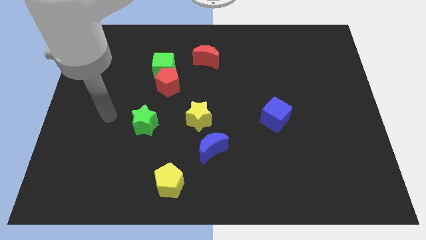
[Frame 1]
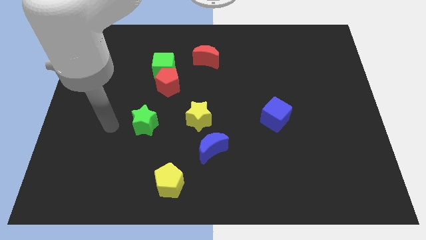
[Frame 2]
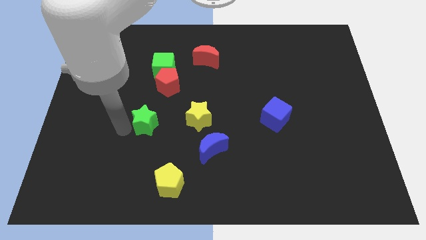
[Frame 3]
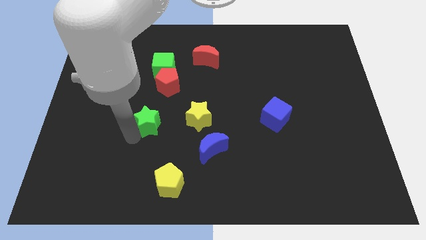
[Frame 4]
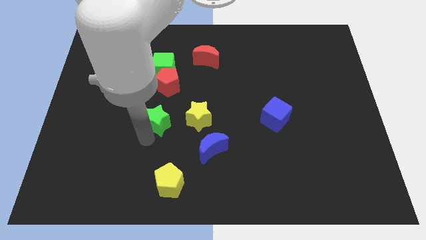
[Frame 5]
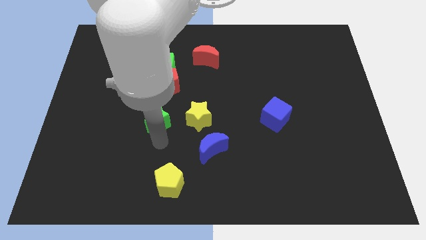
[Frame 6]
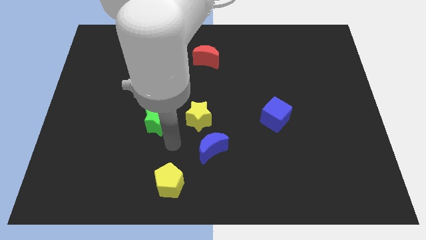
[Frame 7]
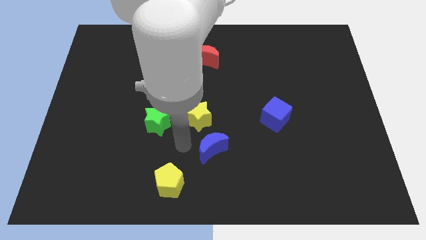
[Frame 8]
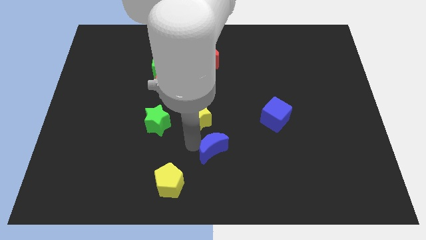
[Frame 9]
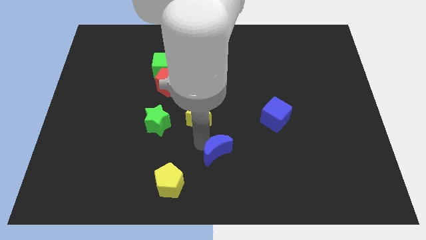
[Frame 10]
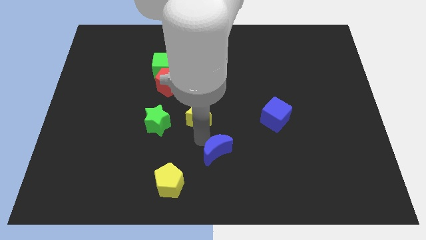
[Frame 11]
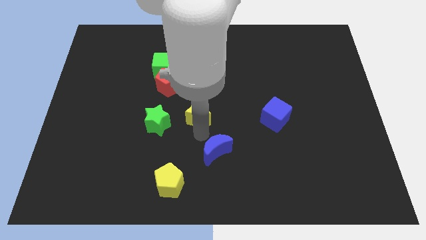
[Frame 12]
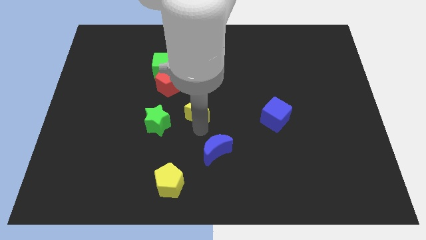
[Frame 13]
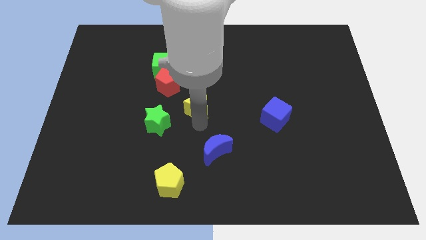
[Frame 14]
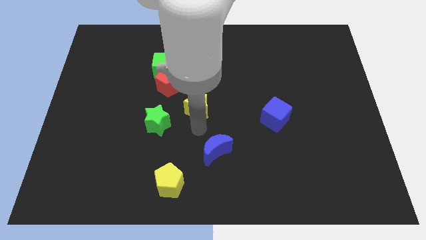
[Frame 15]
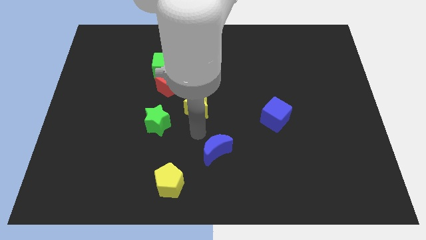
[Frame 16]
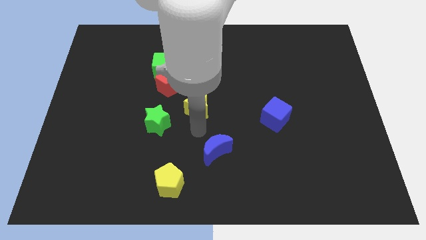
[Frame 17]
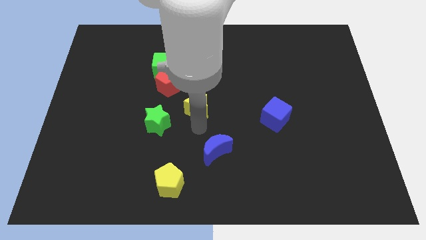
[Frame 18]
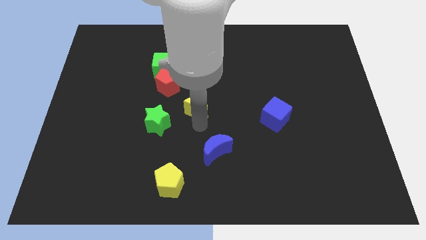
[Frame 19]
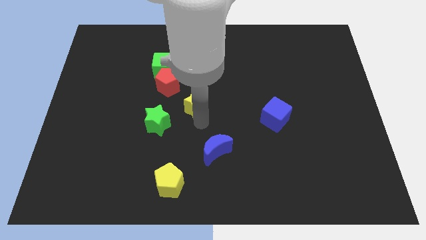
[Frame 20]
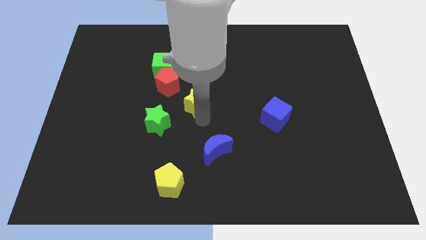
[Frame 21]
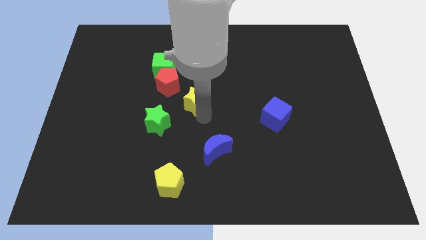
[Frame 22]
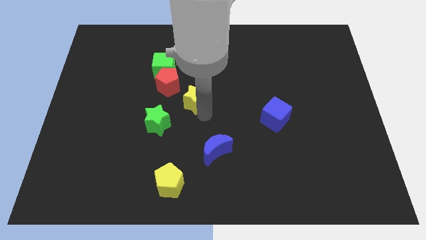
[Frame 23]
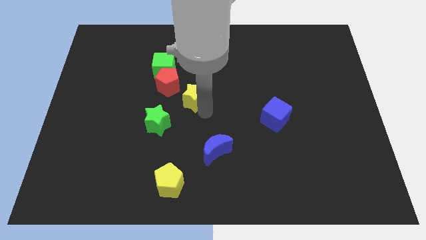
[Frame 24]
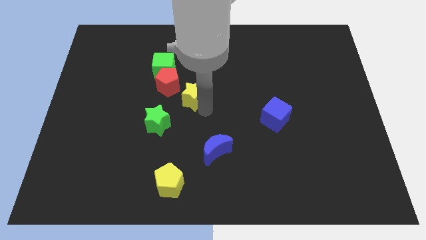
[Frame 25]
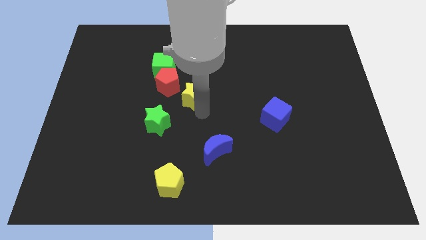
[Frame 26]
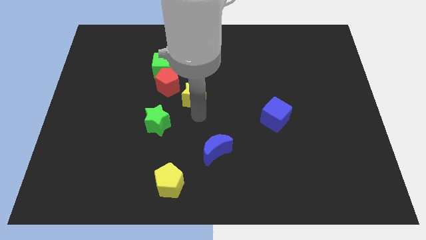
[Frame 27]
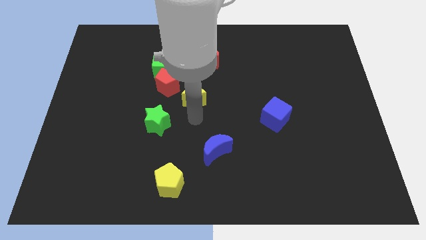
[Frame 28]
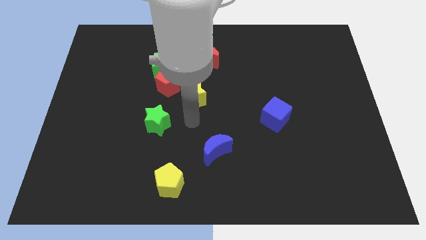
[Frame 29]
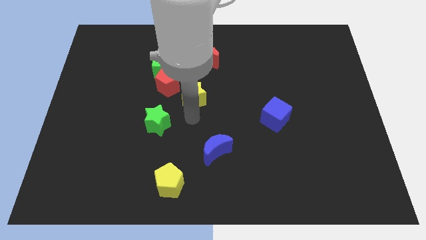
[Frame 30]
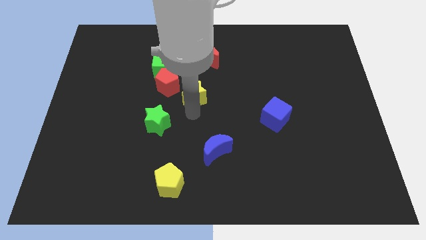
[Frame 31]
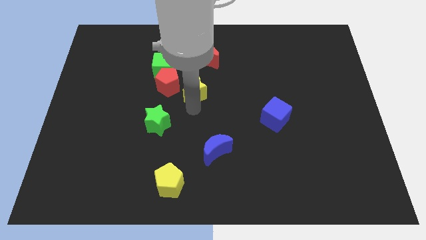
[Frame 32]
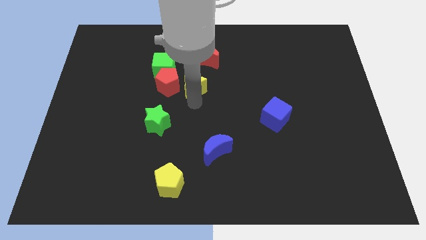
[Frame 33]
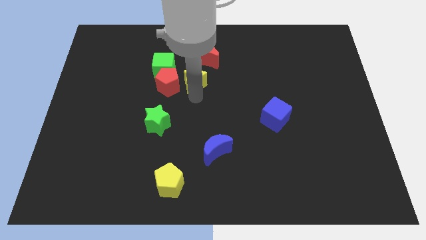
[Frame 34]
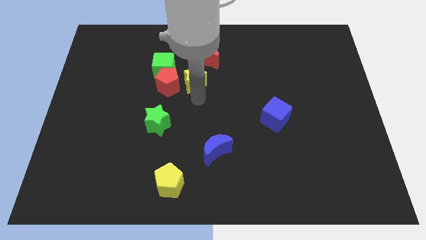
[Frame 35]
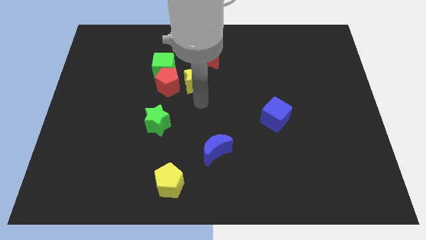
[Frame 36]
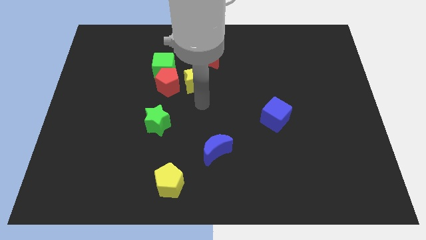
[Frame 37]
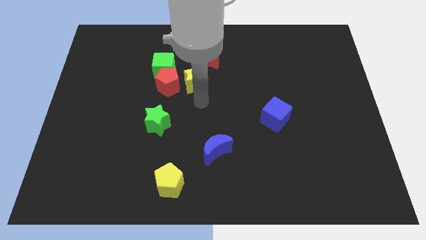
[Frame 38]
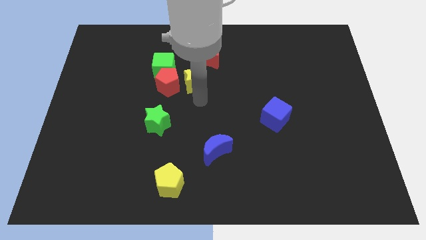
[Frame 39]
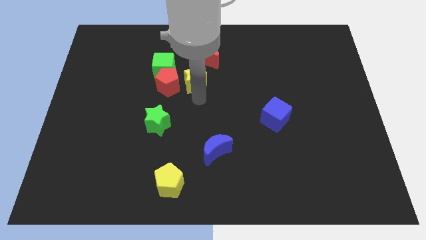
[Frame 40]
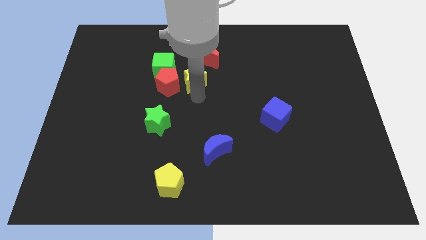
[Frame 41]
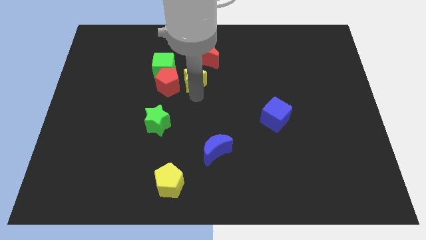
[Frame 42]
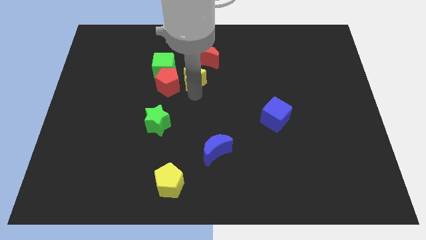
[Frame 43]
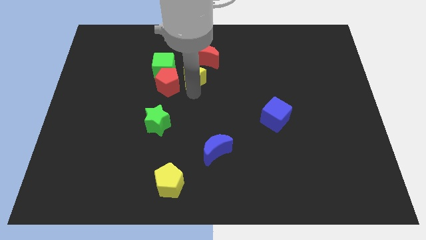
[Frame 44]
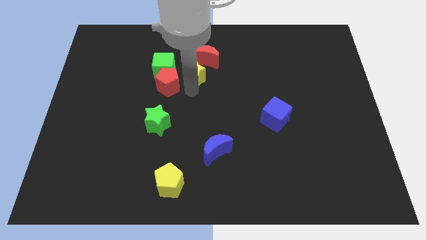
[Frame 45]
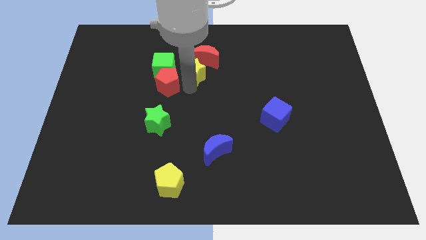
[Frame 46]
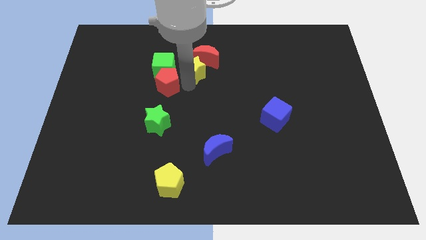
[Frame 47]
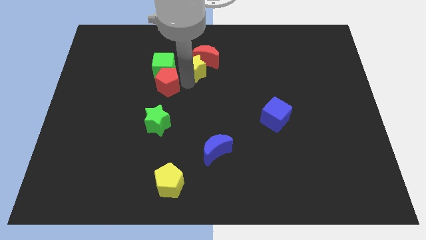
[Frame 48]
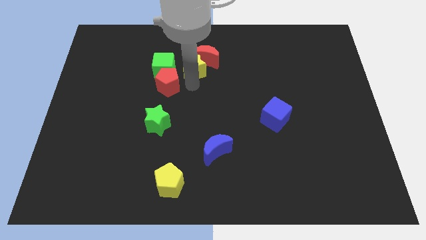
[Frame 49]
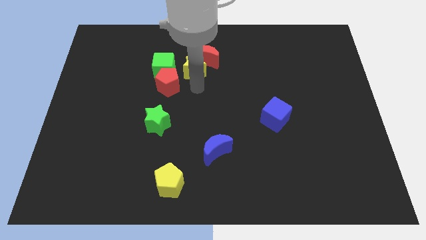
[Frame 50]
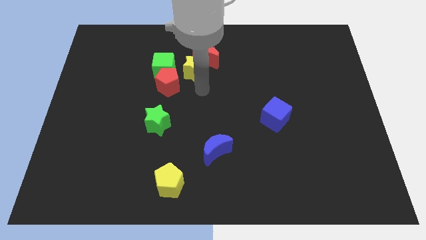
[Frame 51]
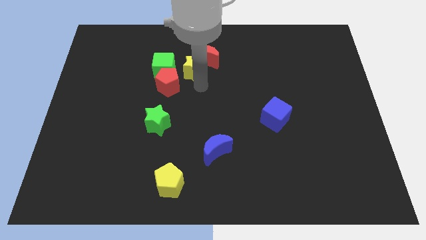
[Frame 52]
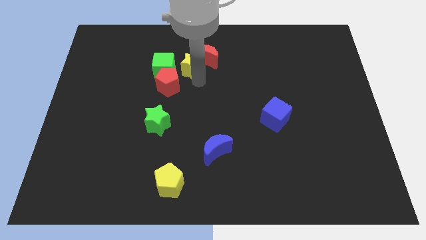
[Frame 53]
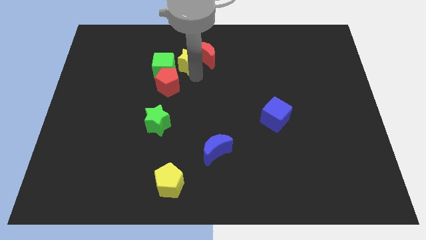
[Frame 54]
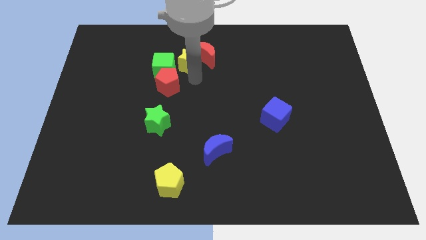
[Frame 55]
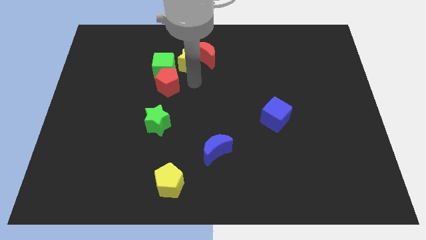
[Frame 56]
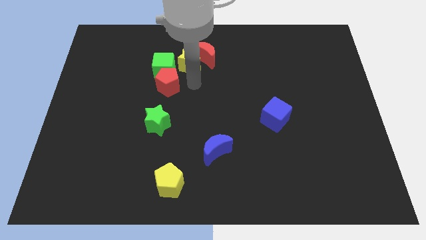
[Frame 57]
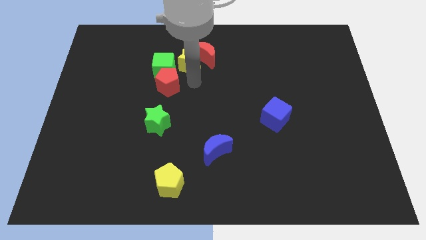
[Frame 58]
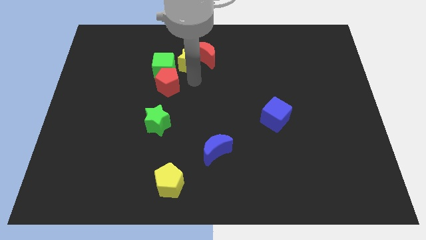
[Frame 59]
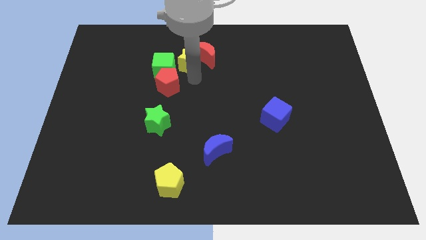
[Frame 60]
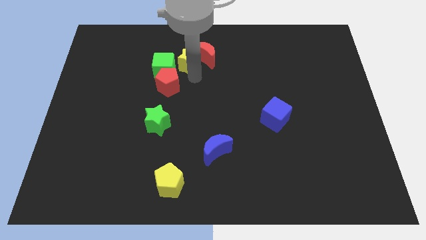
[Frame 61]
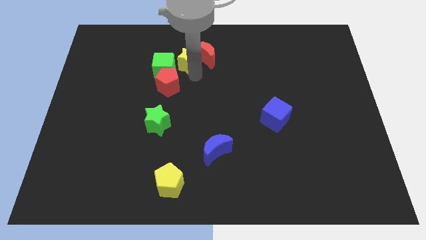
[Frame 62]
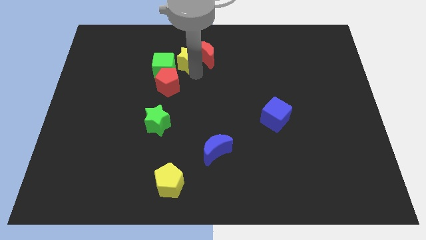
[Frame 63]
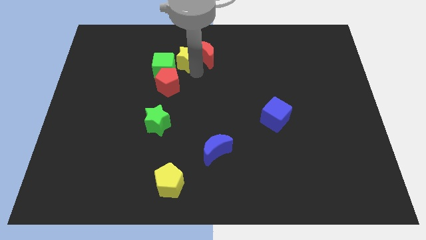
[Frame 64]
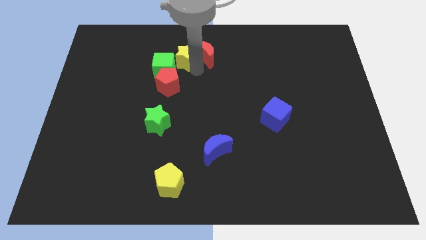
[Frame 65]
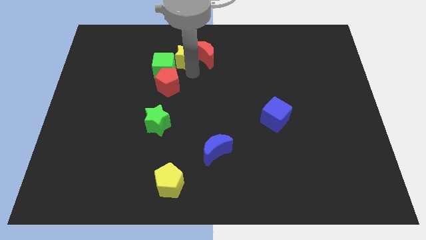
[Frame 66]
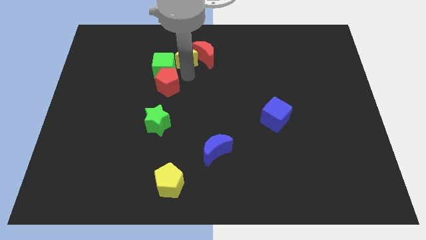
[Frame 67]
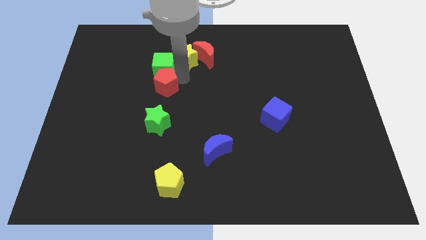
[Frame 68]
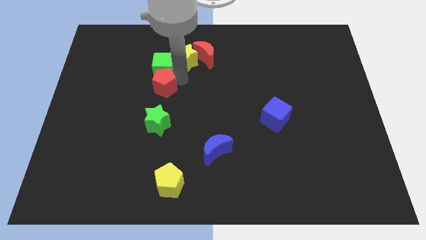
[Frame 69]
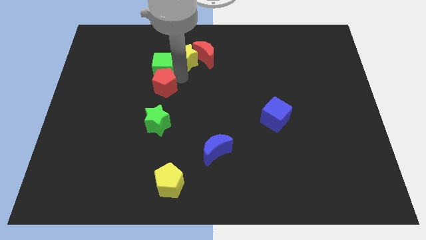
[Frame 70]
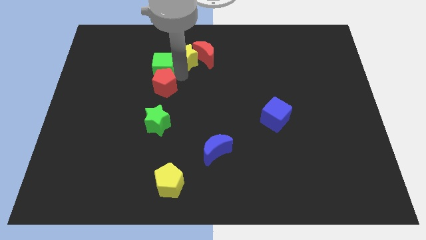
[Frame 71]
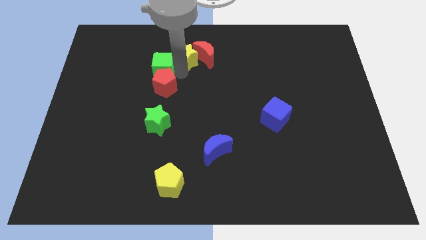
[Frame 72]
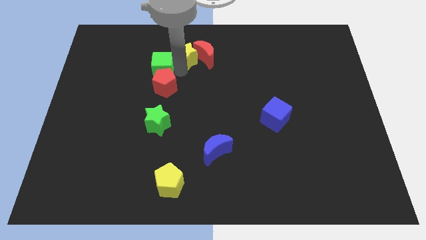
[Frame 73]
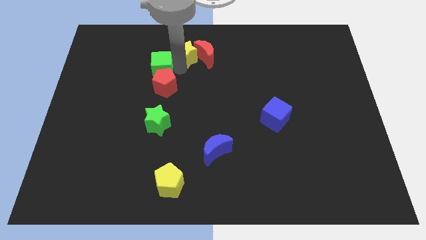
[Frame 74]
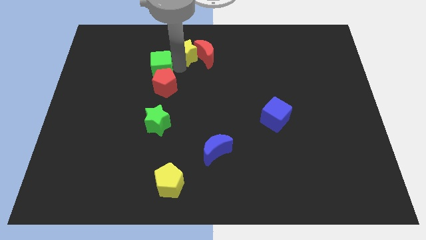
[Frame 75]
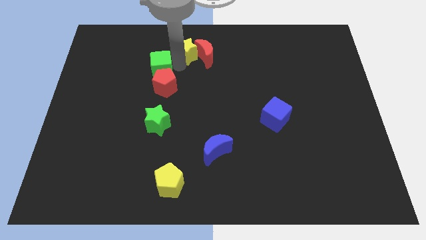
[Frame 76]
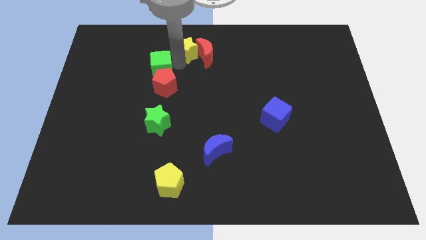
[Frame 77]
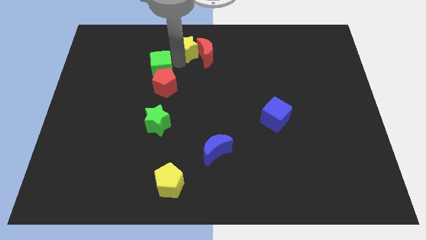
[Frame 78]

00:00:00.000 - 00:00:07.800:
move the yellow star to the towards your base
